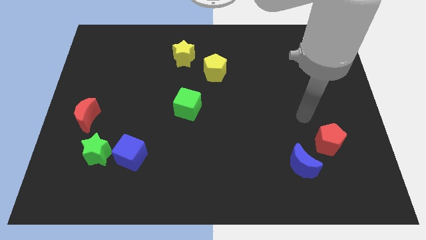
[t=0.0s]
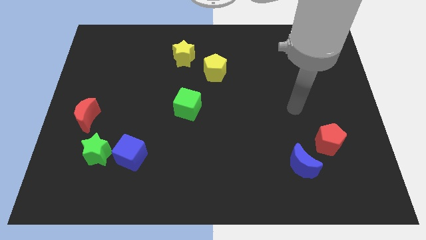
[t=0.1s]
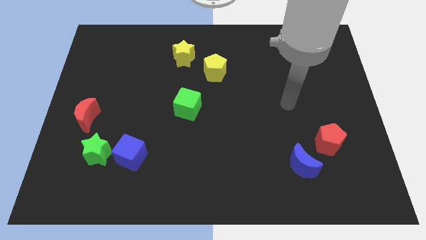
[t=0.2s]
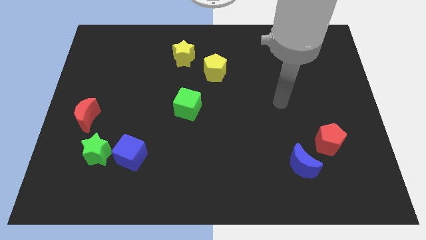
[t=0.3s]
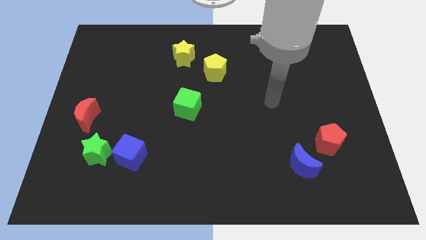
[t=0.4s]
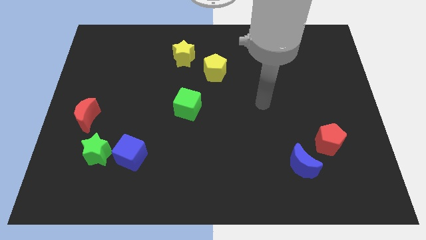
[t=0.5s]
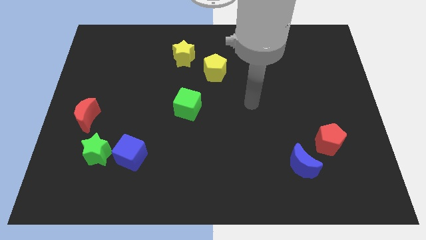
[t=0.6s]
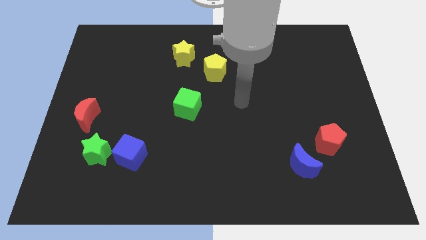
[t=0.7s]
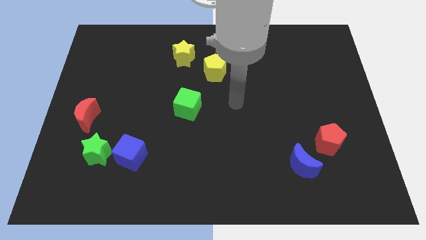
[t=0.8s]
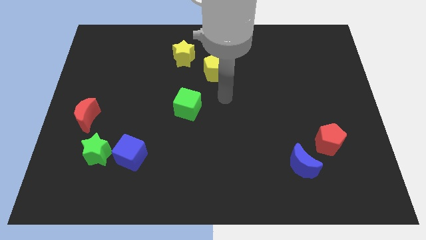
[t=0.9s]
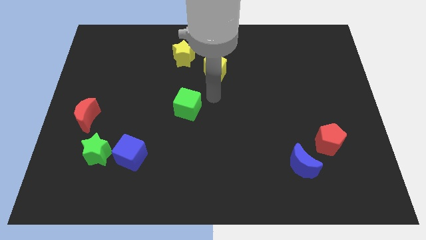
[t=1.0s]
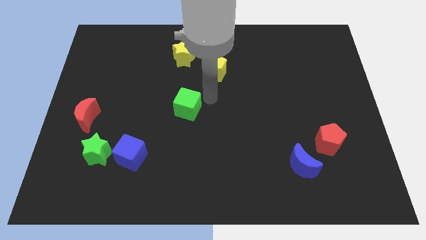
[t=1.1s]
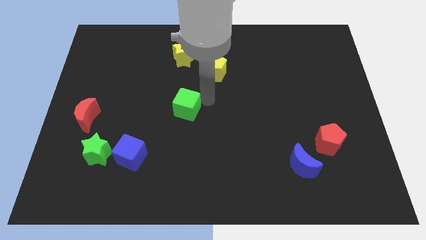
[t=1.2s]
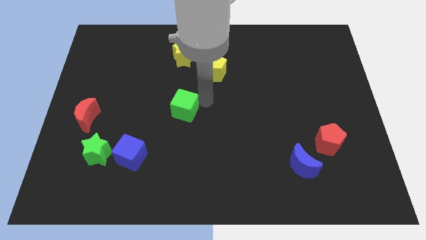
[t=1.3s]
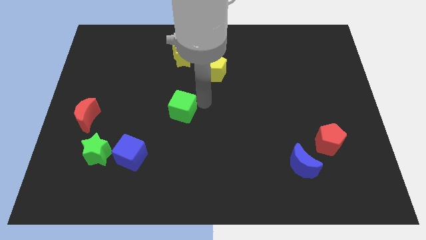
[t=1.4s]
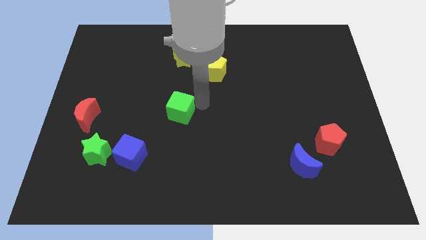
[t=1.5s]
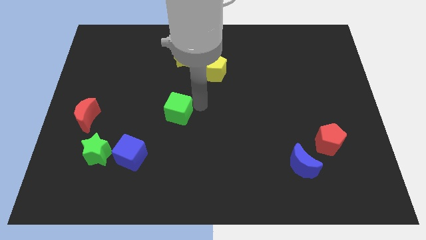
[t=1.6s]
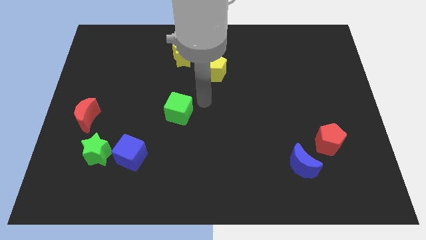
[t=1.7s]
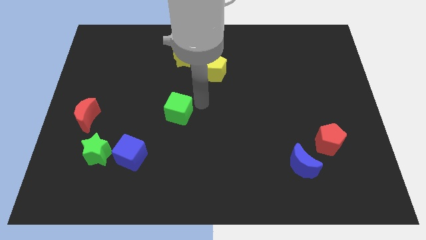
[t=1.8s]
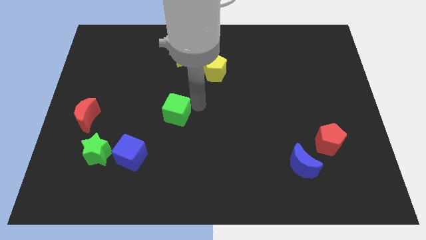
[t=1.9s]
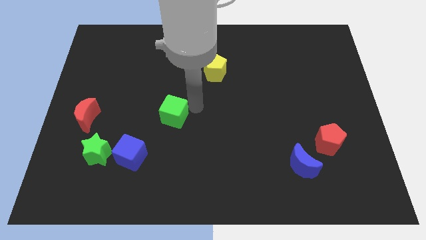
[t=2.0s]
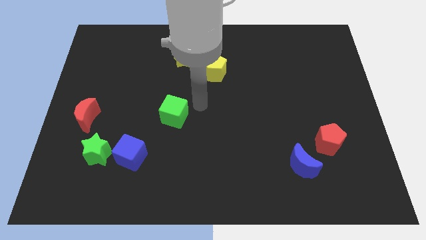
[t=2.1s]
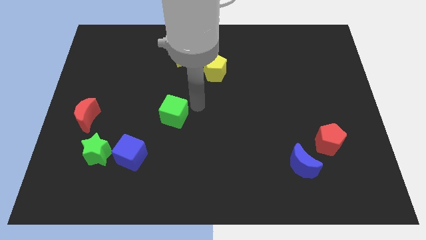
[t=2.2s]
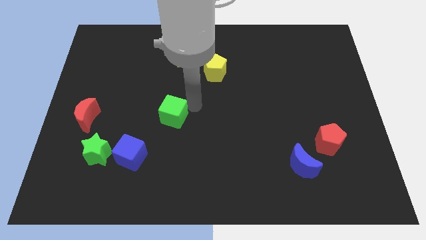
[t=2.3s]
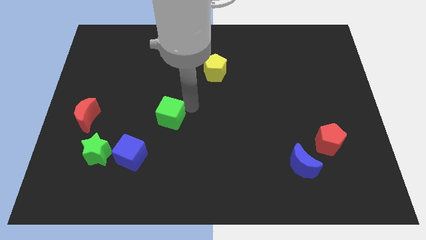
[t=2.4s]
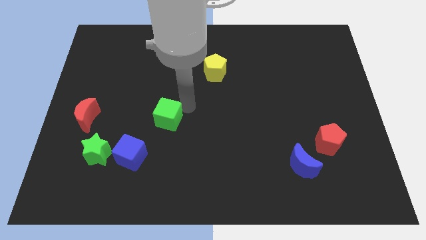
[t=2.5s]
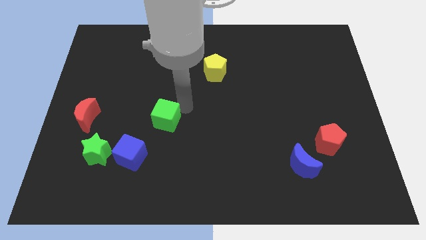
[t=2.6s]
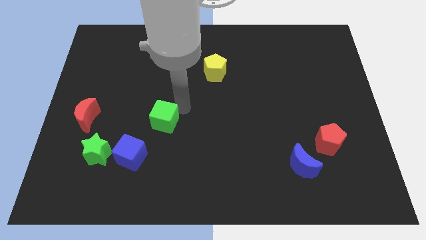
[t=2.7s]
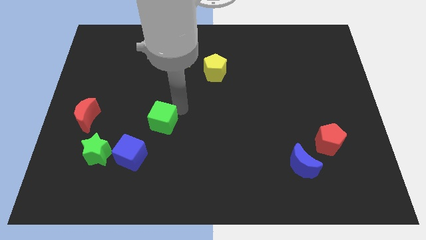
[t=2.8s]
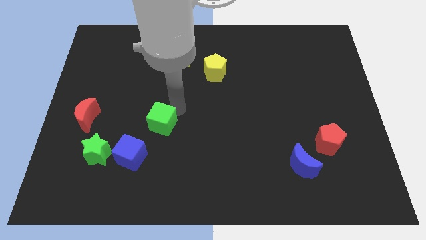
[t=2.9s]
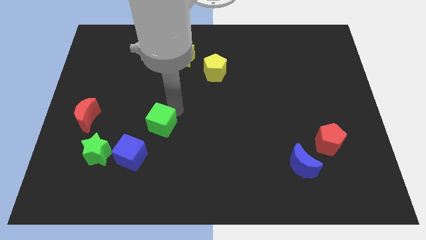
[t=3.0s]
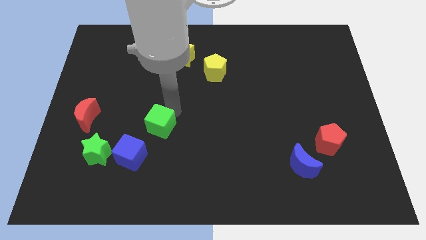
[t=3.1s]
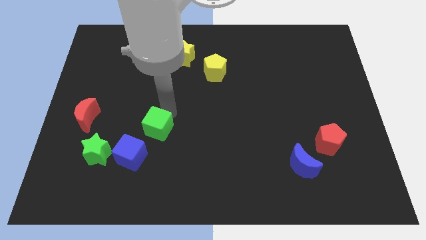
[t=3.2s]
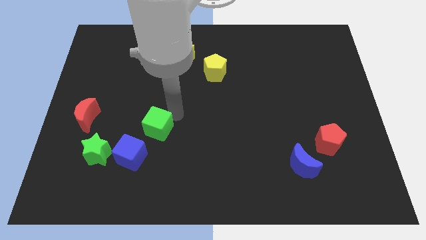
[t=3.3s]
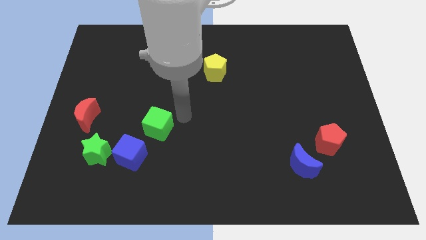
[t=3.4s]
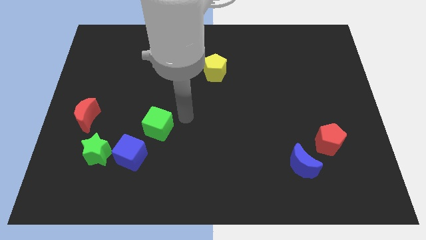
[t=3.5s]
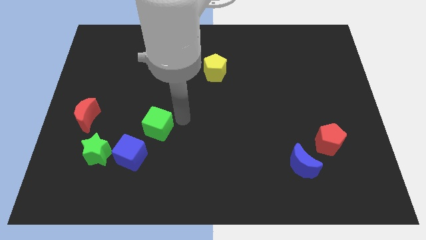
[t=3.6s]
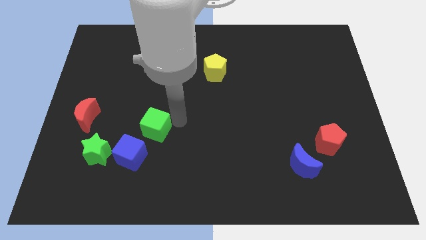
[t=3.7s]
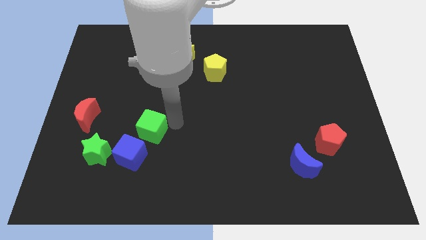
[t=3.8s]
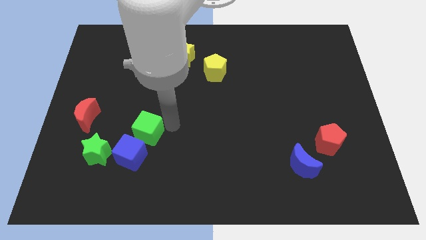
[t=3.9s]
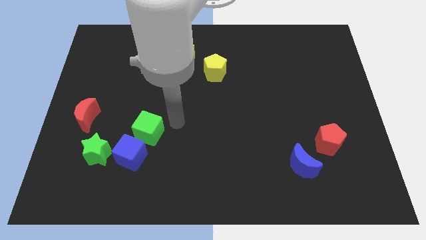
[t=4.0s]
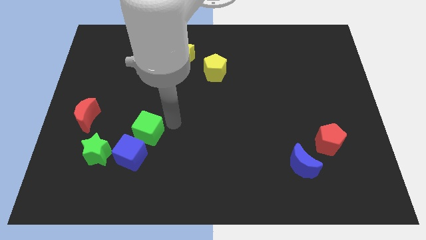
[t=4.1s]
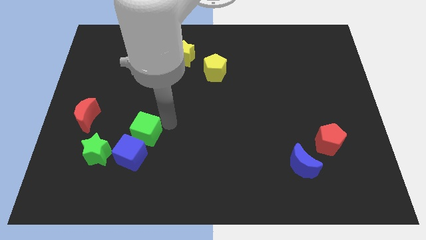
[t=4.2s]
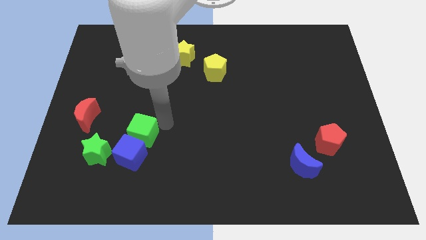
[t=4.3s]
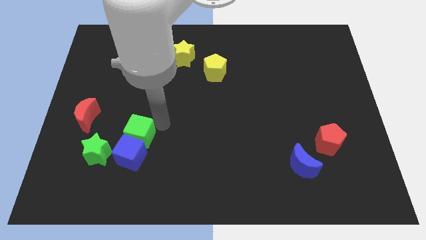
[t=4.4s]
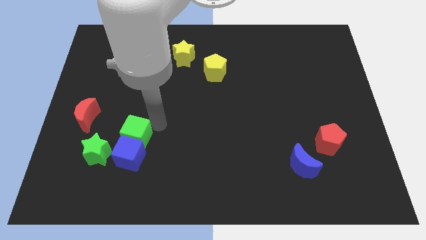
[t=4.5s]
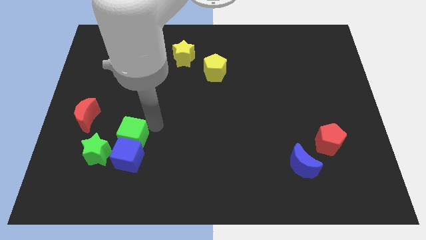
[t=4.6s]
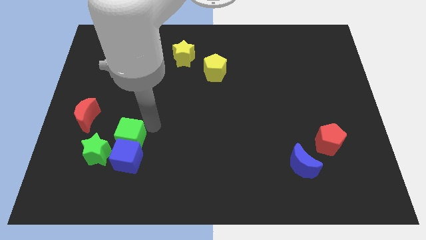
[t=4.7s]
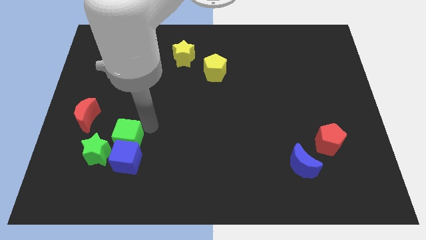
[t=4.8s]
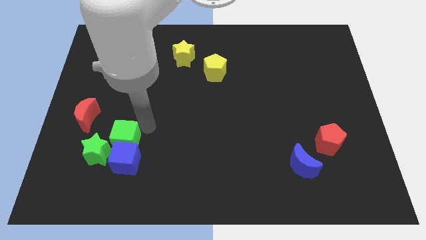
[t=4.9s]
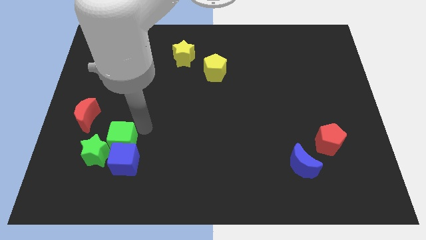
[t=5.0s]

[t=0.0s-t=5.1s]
push the green cube close to the green star

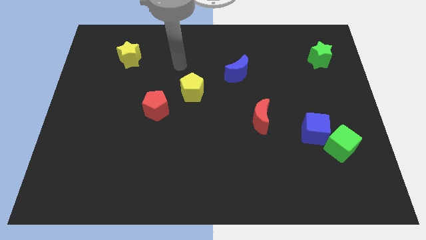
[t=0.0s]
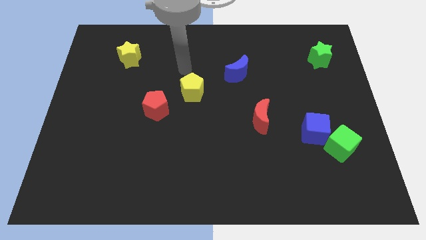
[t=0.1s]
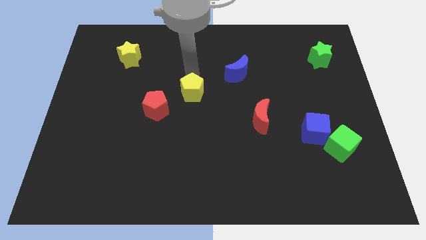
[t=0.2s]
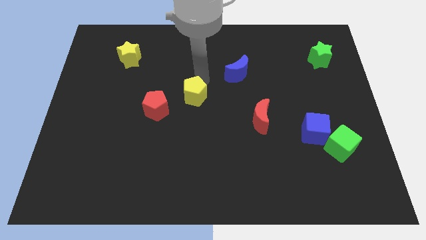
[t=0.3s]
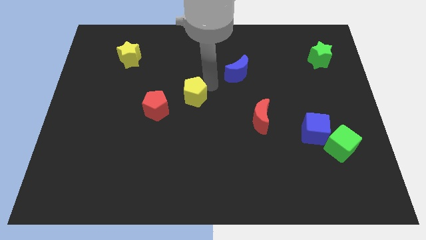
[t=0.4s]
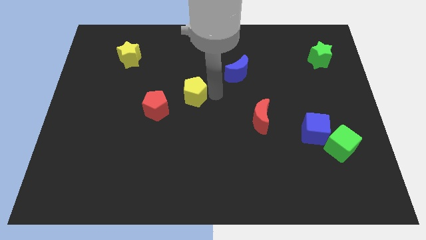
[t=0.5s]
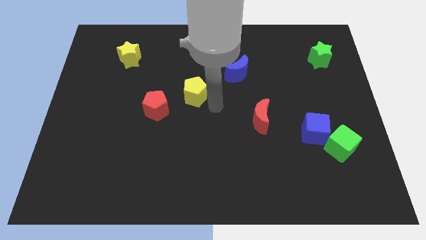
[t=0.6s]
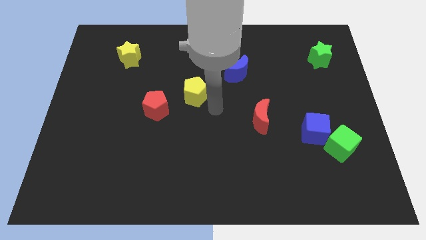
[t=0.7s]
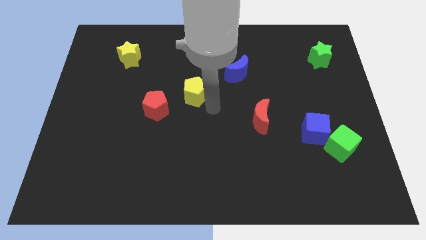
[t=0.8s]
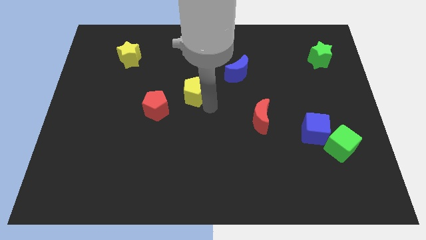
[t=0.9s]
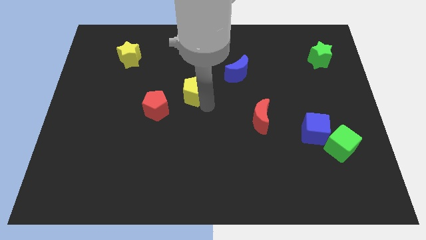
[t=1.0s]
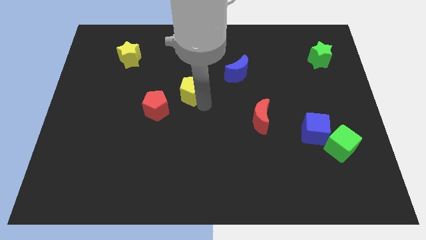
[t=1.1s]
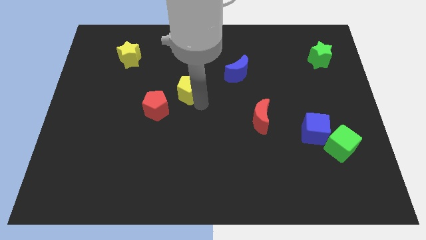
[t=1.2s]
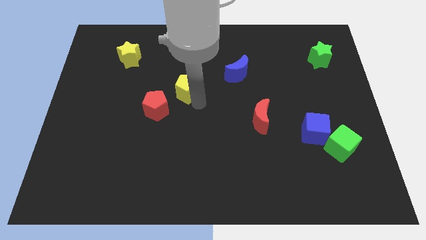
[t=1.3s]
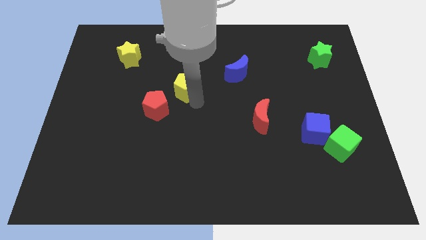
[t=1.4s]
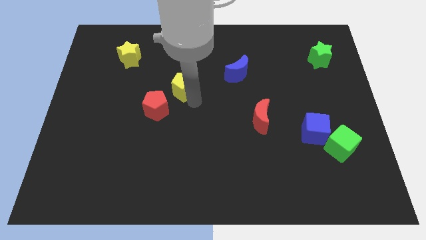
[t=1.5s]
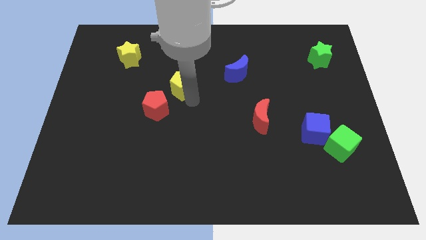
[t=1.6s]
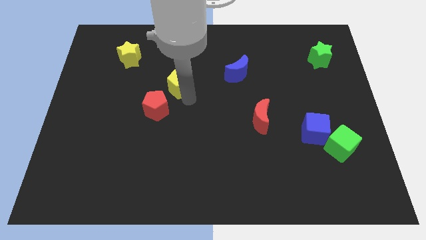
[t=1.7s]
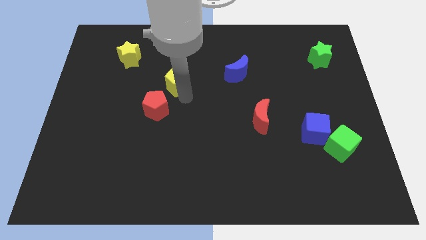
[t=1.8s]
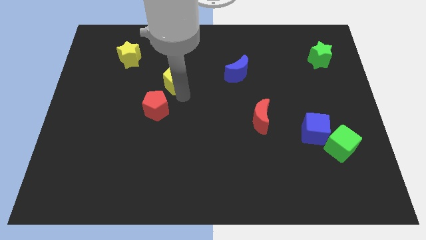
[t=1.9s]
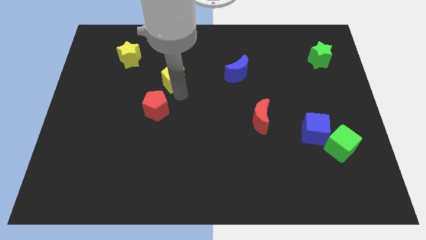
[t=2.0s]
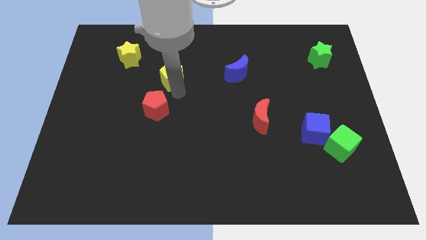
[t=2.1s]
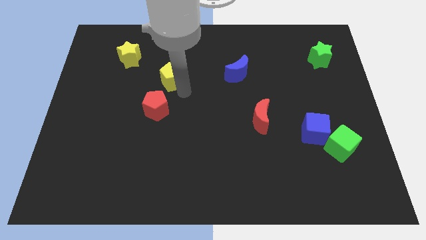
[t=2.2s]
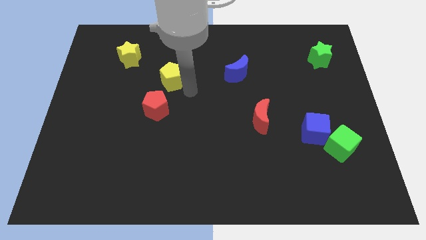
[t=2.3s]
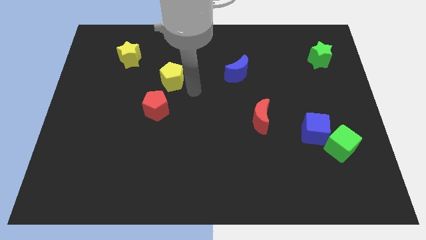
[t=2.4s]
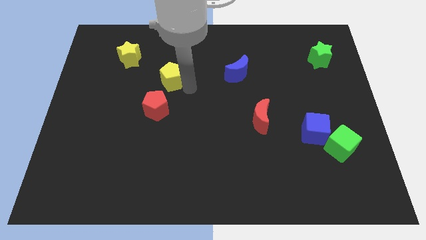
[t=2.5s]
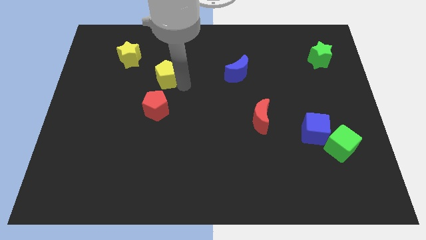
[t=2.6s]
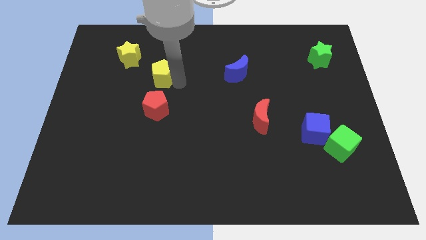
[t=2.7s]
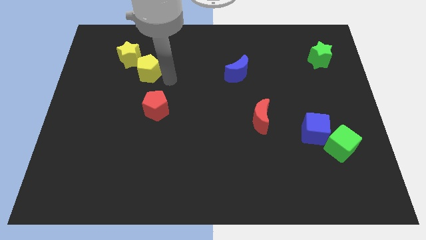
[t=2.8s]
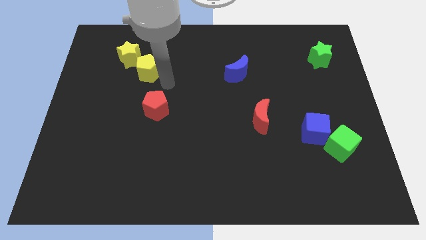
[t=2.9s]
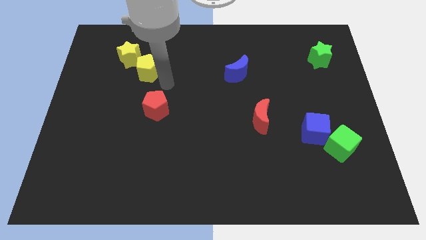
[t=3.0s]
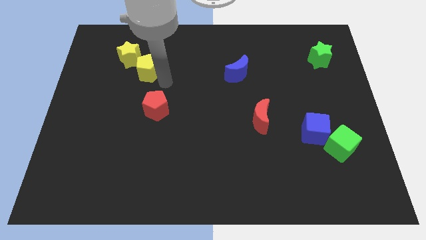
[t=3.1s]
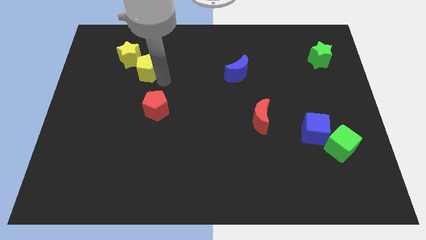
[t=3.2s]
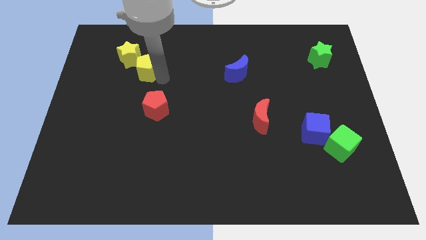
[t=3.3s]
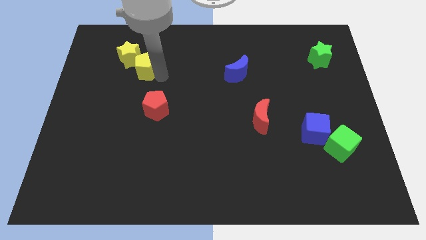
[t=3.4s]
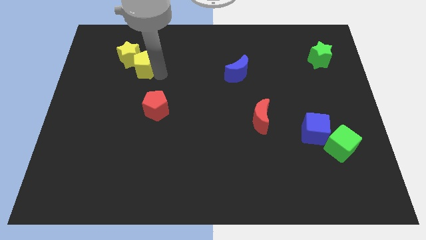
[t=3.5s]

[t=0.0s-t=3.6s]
put the yellow pentagon next to the yellow star
